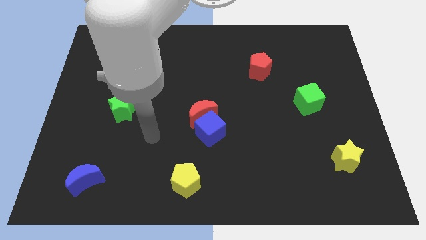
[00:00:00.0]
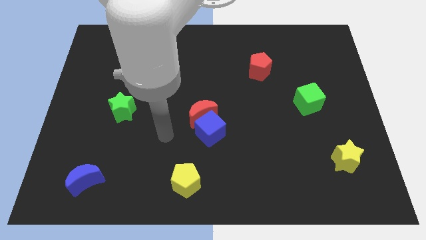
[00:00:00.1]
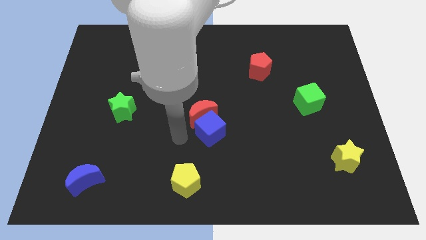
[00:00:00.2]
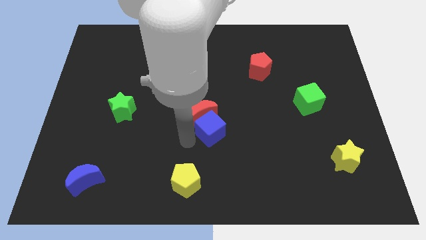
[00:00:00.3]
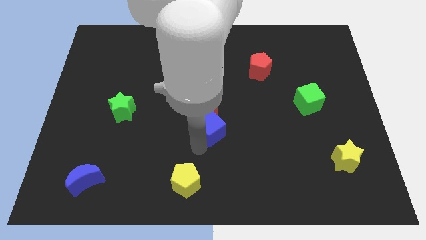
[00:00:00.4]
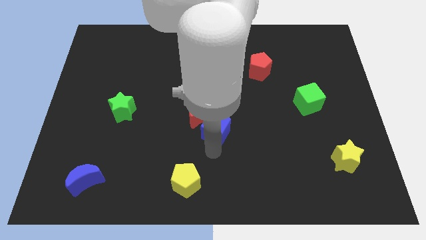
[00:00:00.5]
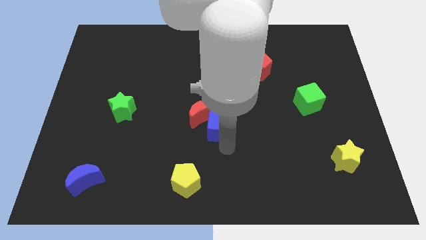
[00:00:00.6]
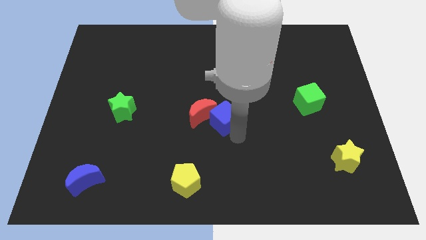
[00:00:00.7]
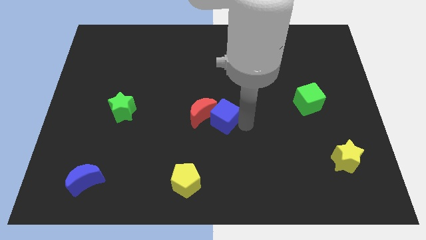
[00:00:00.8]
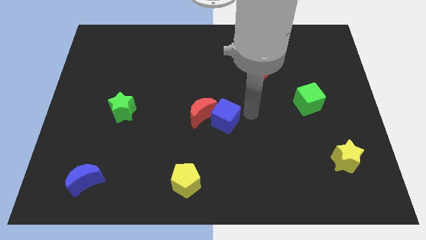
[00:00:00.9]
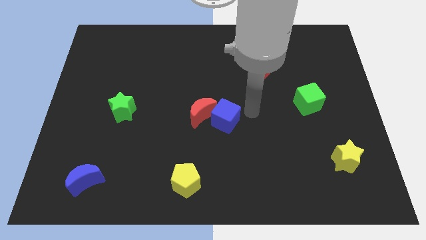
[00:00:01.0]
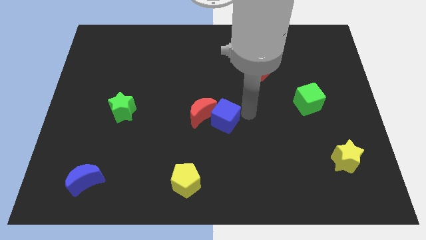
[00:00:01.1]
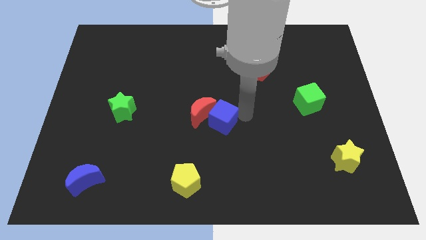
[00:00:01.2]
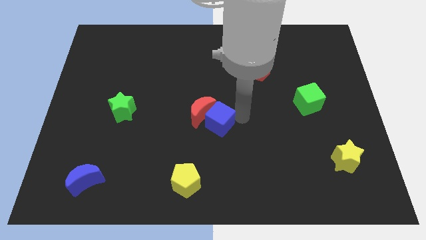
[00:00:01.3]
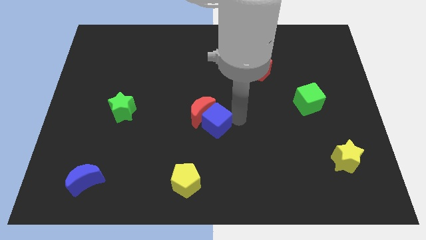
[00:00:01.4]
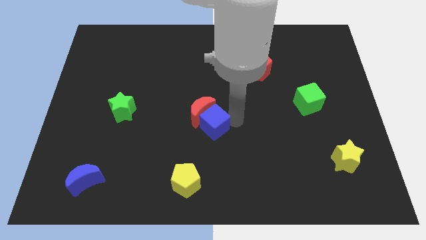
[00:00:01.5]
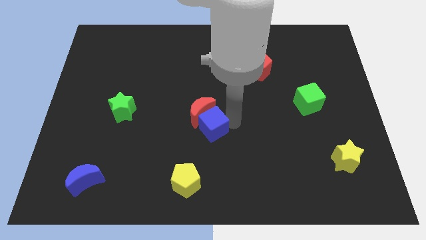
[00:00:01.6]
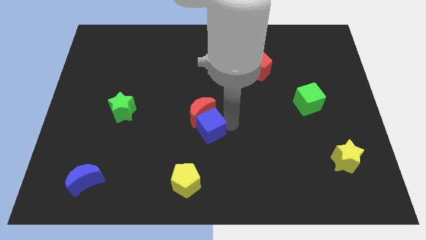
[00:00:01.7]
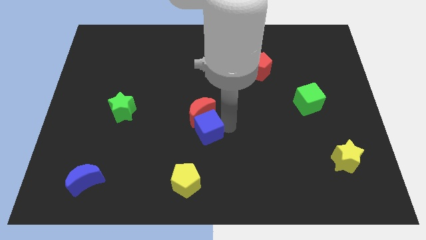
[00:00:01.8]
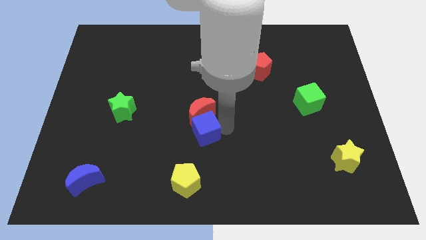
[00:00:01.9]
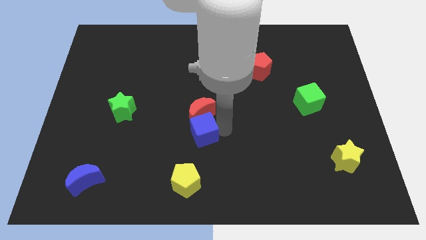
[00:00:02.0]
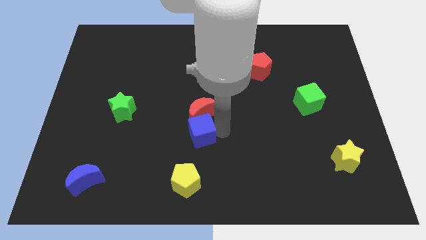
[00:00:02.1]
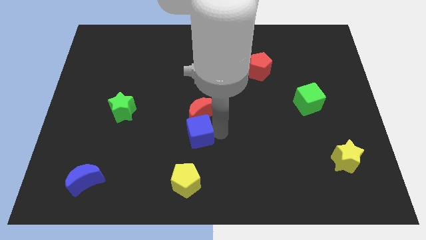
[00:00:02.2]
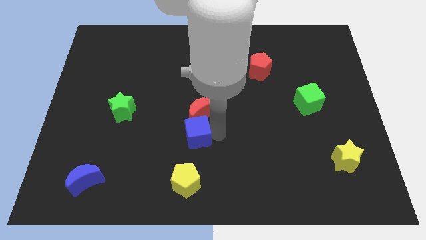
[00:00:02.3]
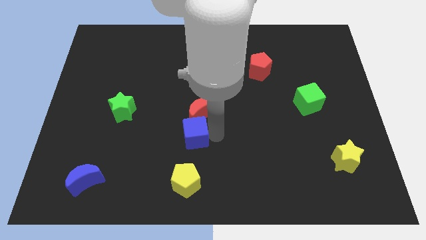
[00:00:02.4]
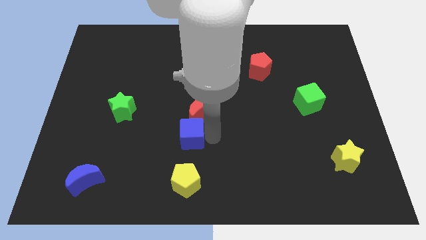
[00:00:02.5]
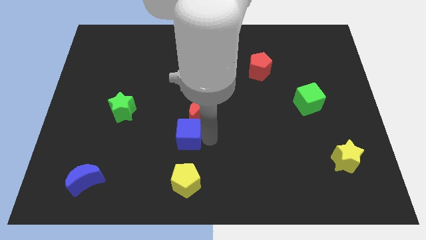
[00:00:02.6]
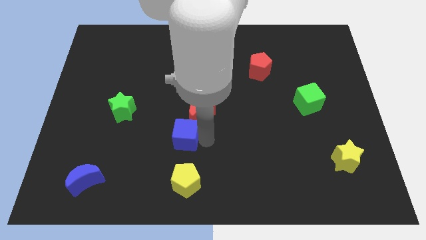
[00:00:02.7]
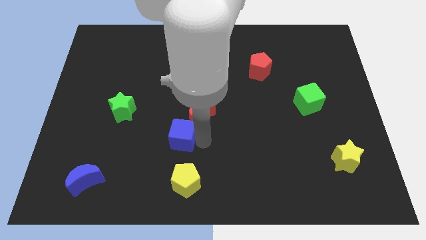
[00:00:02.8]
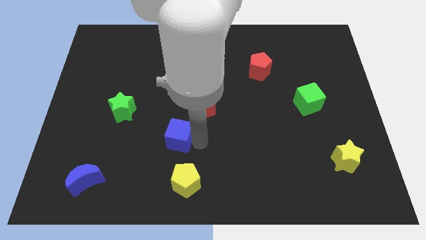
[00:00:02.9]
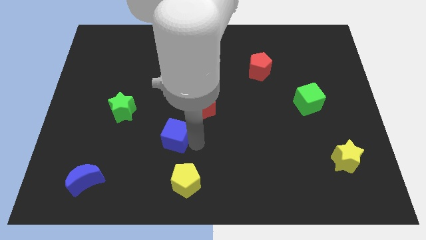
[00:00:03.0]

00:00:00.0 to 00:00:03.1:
slide the blue cube to the left a little

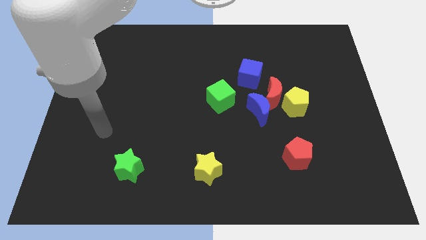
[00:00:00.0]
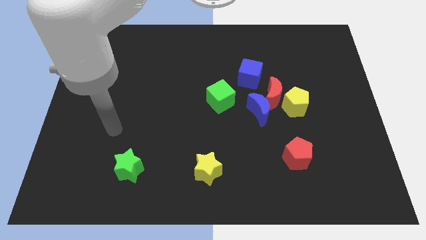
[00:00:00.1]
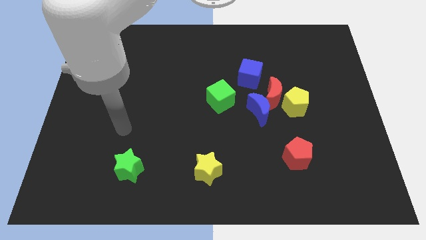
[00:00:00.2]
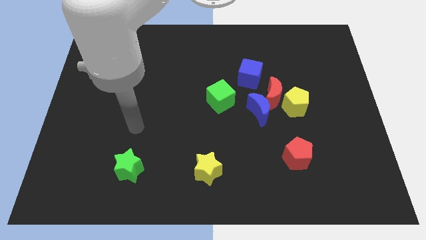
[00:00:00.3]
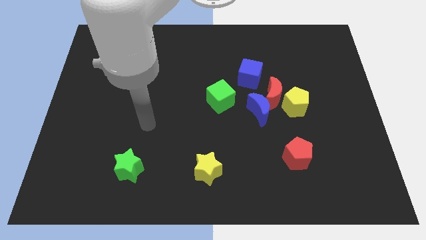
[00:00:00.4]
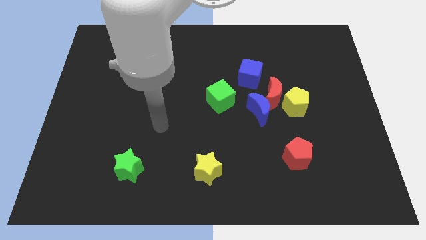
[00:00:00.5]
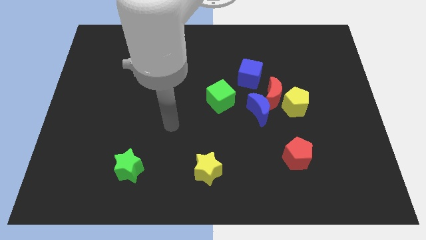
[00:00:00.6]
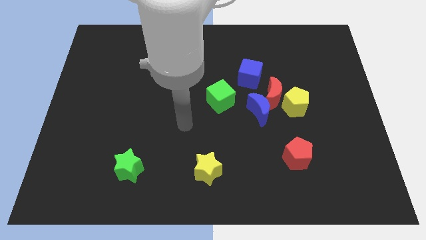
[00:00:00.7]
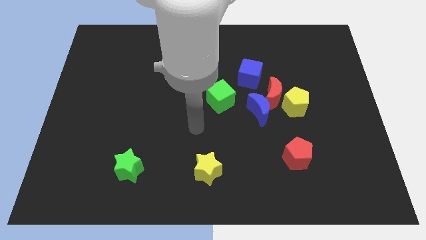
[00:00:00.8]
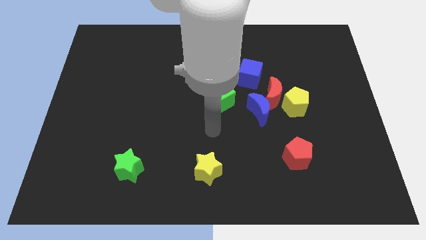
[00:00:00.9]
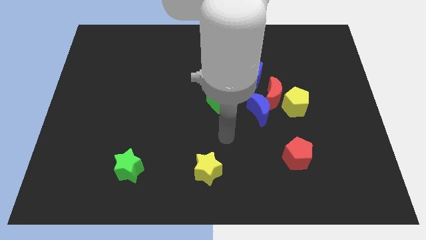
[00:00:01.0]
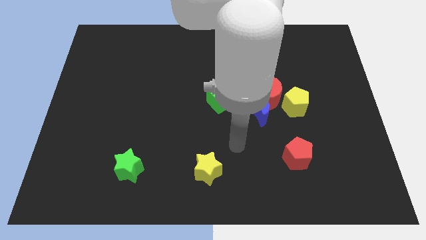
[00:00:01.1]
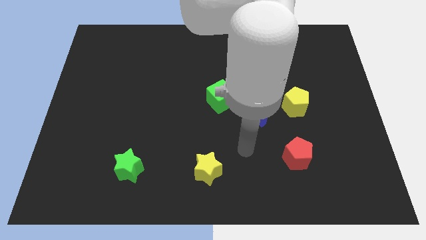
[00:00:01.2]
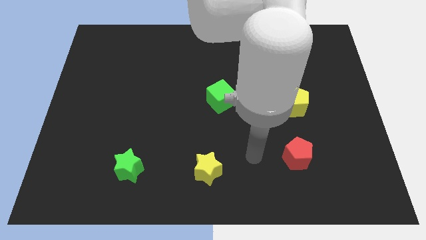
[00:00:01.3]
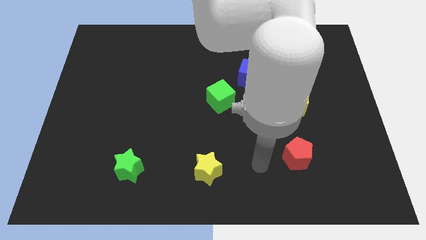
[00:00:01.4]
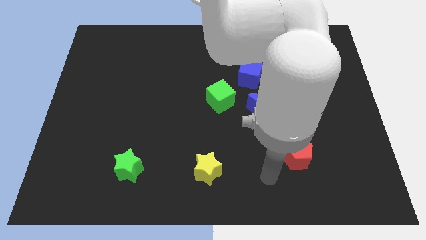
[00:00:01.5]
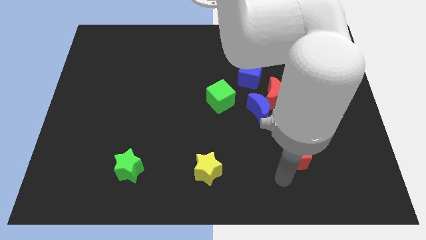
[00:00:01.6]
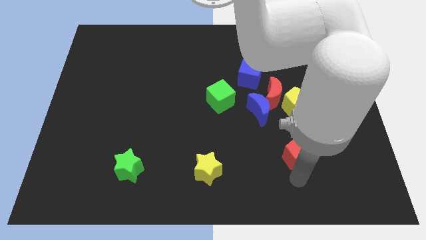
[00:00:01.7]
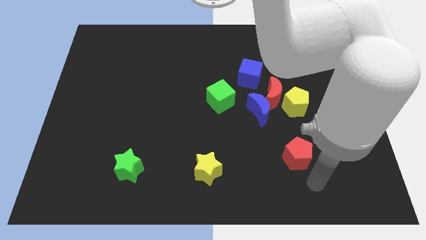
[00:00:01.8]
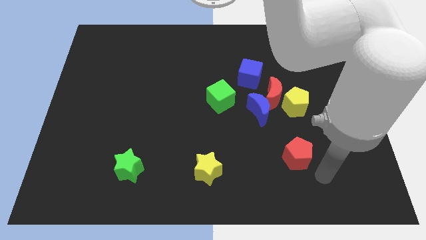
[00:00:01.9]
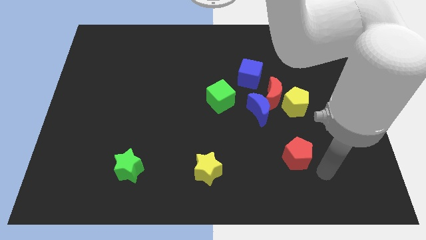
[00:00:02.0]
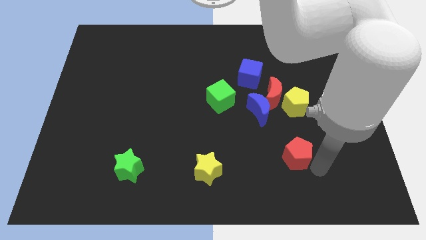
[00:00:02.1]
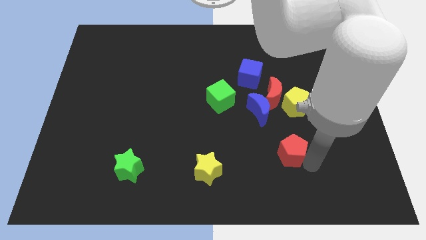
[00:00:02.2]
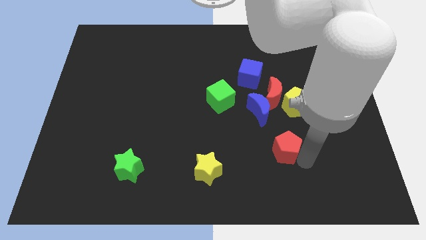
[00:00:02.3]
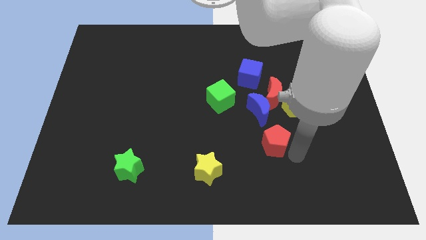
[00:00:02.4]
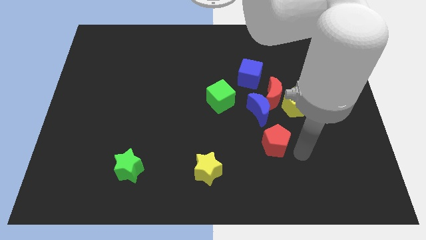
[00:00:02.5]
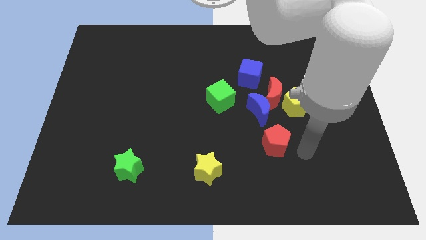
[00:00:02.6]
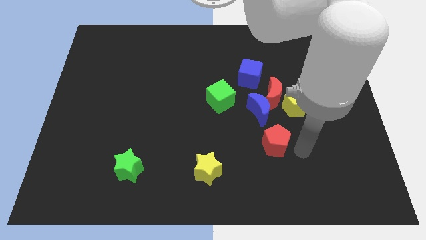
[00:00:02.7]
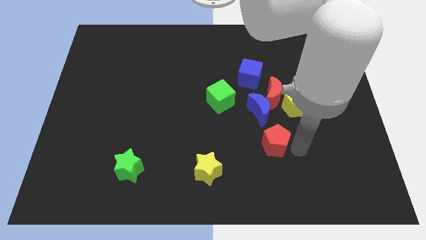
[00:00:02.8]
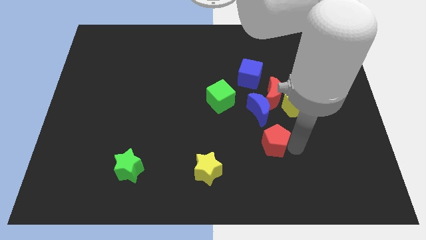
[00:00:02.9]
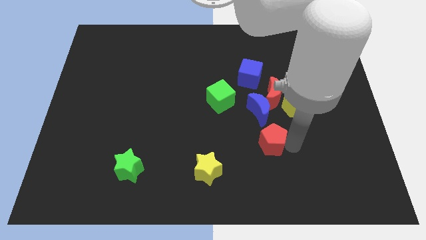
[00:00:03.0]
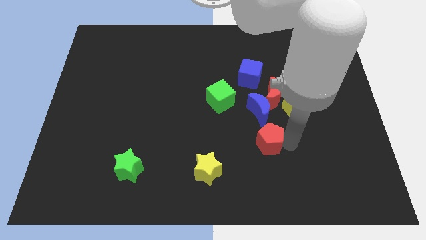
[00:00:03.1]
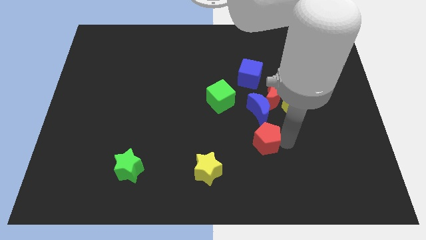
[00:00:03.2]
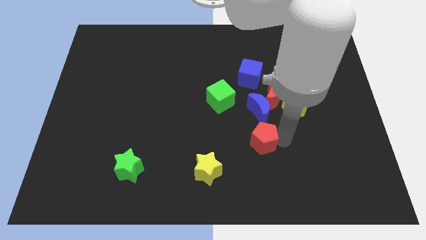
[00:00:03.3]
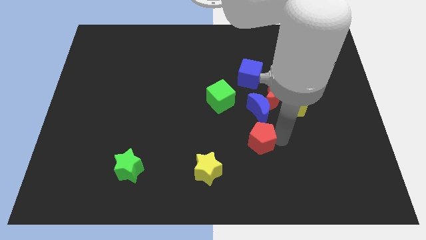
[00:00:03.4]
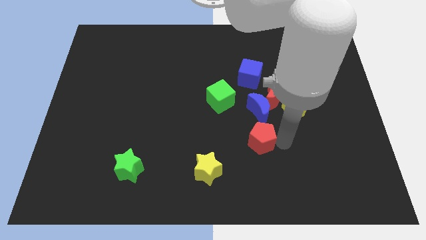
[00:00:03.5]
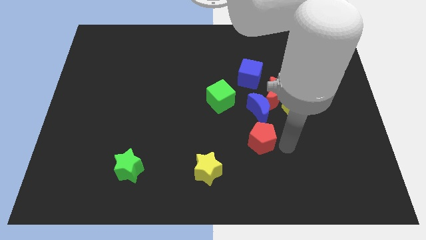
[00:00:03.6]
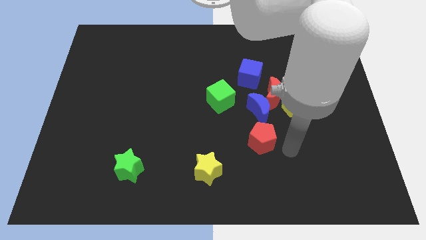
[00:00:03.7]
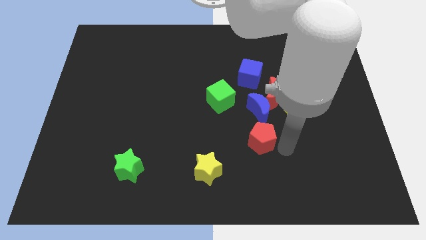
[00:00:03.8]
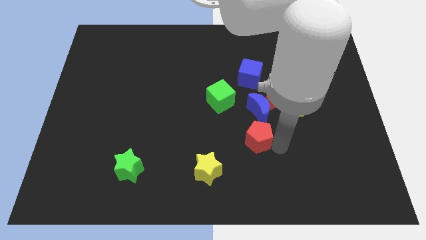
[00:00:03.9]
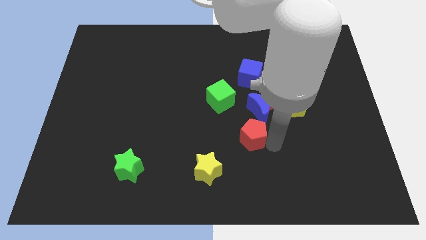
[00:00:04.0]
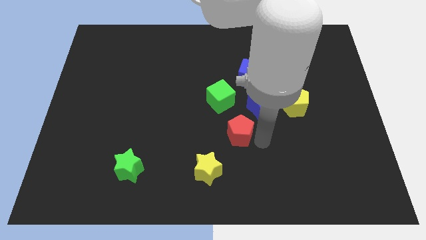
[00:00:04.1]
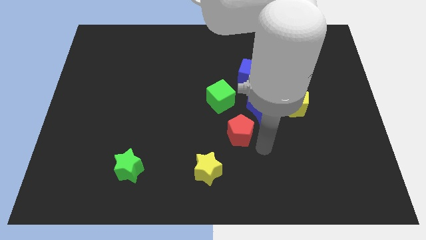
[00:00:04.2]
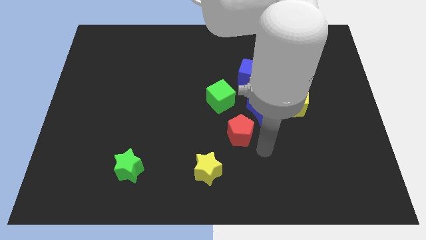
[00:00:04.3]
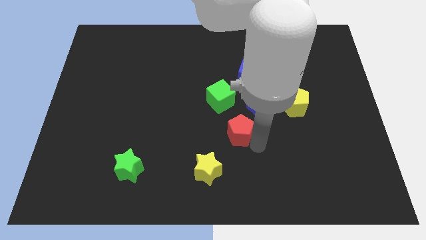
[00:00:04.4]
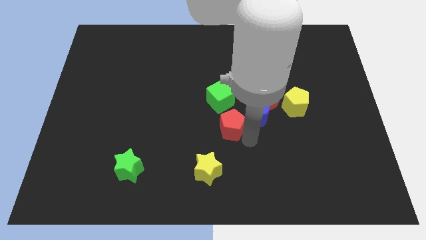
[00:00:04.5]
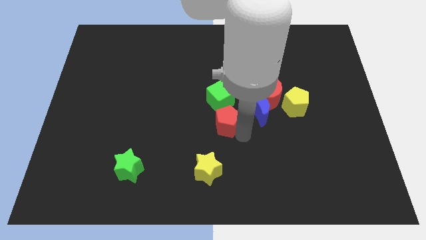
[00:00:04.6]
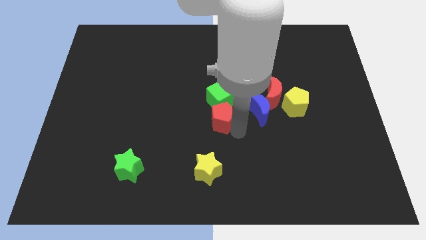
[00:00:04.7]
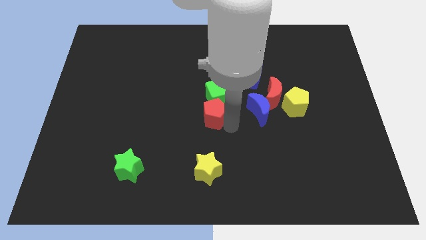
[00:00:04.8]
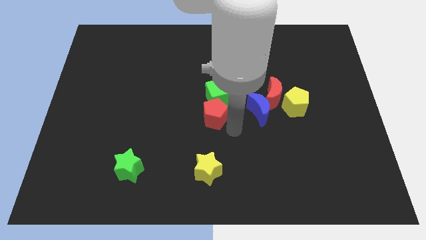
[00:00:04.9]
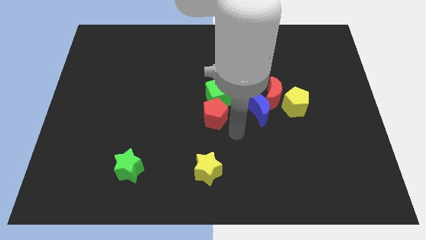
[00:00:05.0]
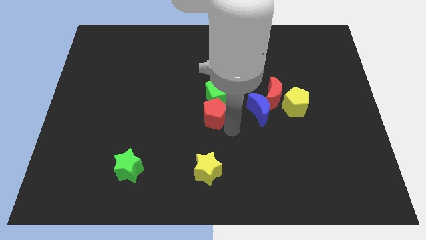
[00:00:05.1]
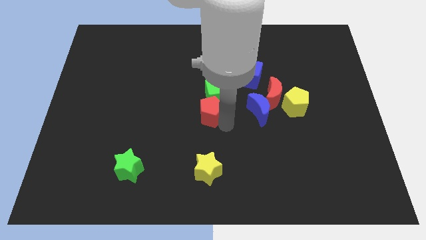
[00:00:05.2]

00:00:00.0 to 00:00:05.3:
move the red pentagon upwards and then to the left
